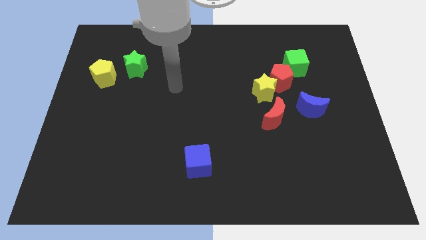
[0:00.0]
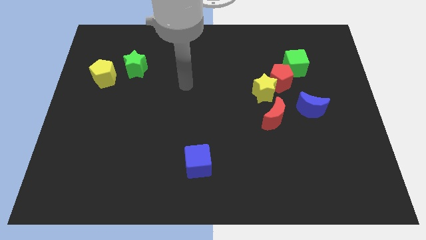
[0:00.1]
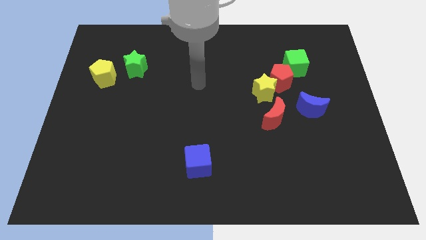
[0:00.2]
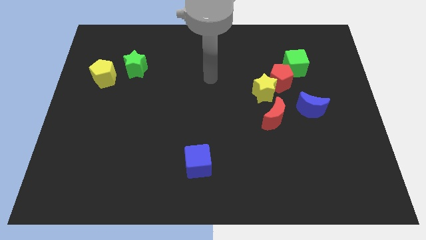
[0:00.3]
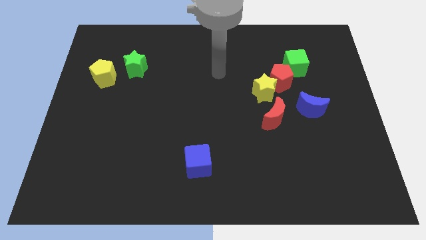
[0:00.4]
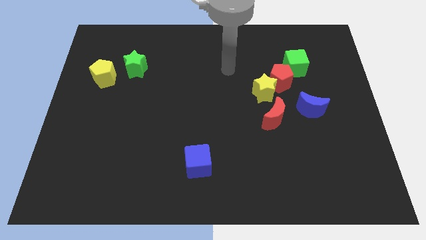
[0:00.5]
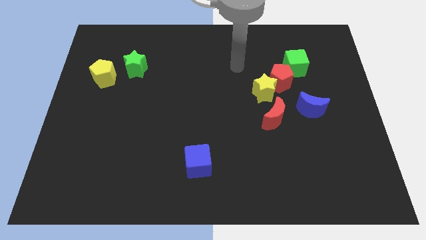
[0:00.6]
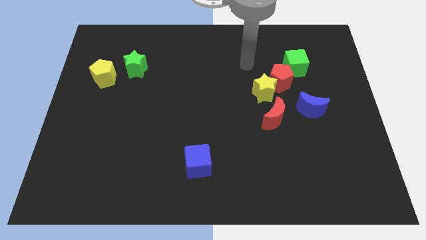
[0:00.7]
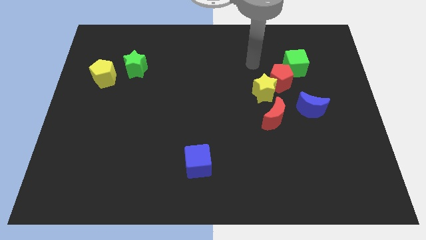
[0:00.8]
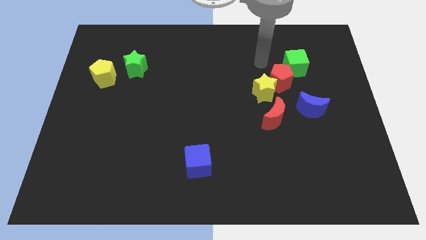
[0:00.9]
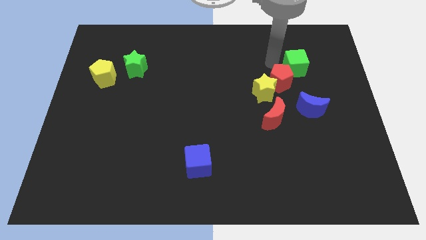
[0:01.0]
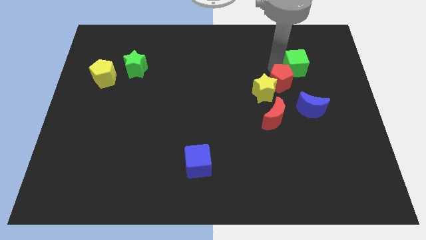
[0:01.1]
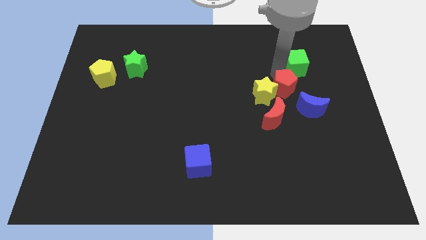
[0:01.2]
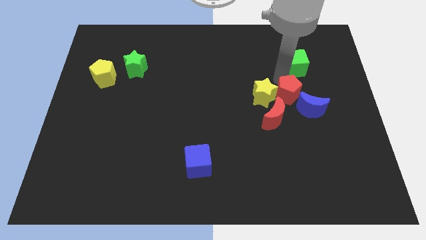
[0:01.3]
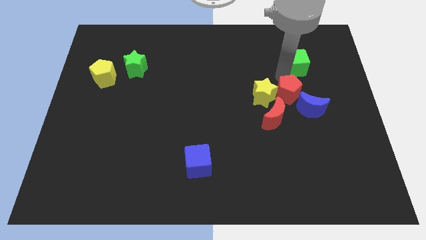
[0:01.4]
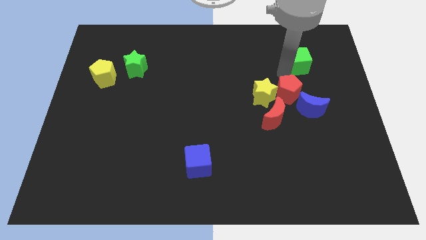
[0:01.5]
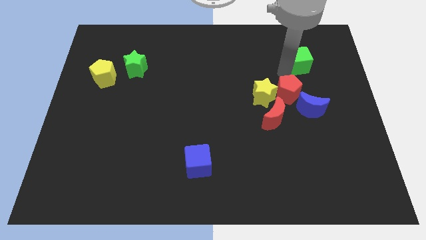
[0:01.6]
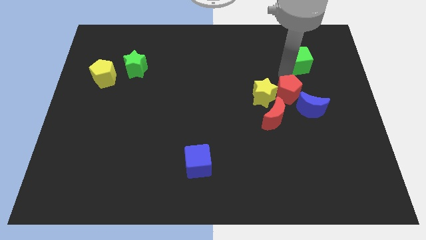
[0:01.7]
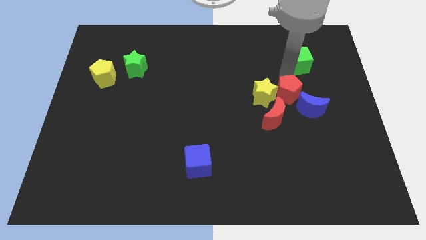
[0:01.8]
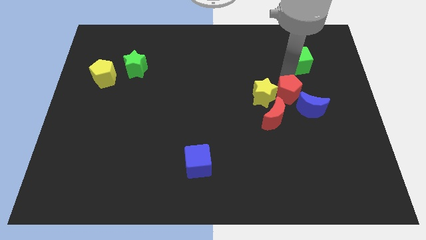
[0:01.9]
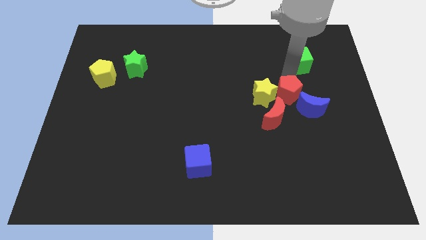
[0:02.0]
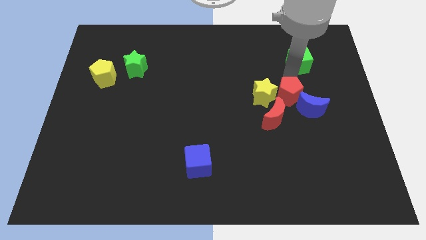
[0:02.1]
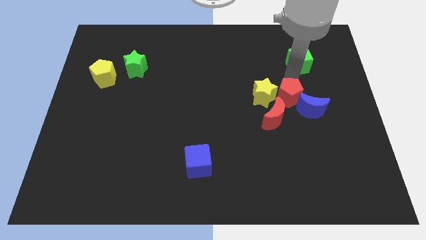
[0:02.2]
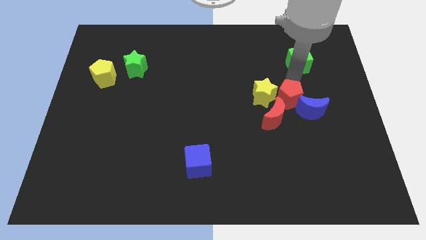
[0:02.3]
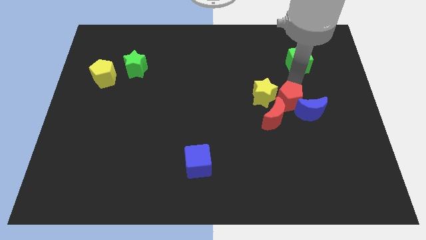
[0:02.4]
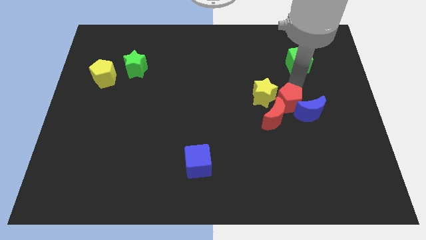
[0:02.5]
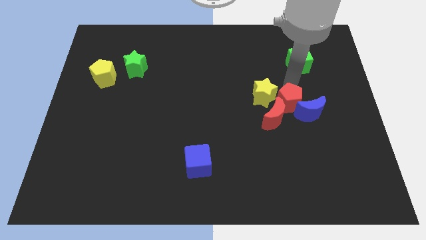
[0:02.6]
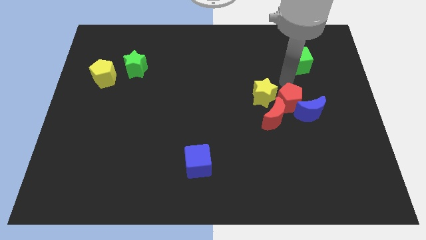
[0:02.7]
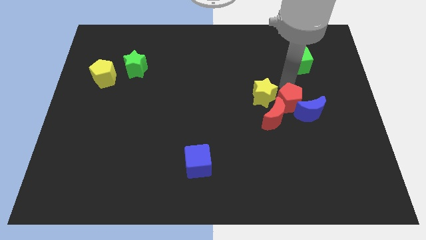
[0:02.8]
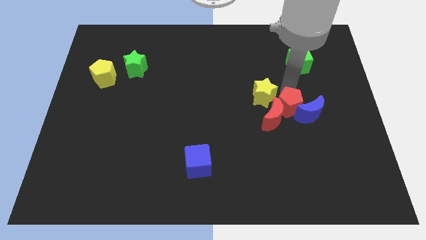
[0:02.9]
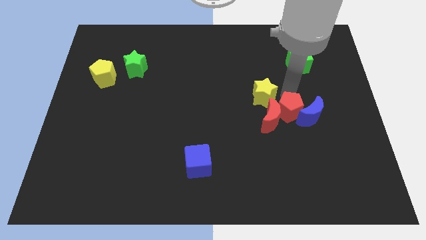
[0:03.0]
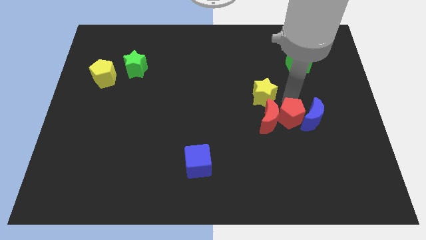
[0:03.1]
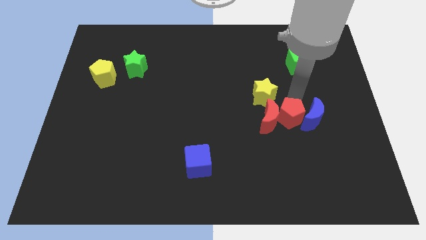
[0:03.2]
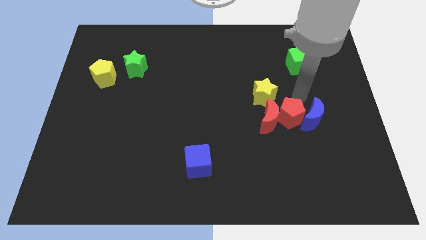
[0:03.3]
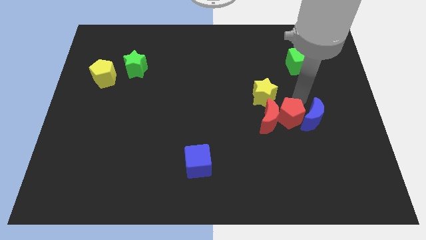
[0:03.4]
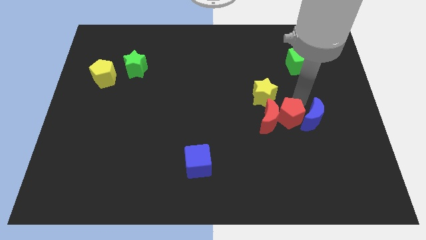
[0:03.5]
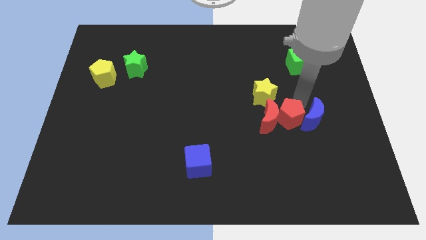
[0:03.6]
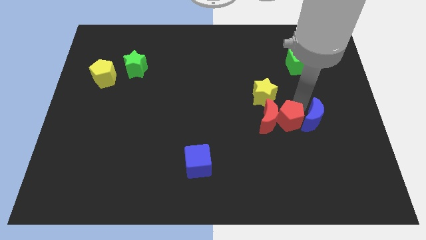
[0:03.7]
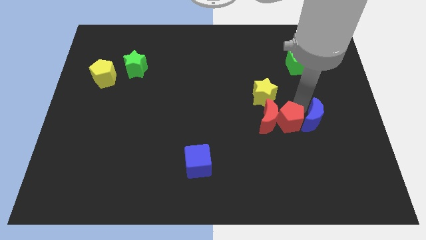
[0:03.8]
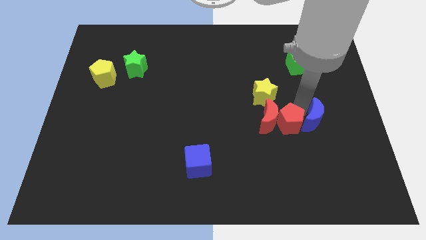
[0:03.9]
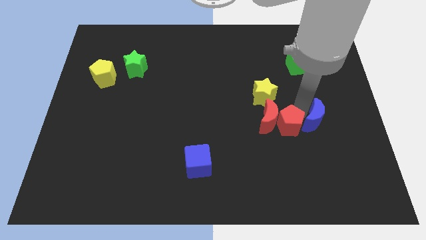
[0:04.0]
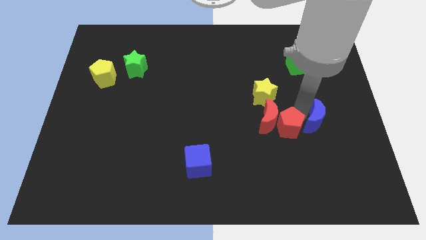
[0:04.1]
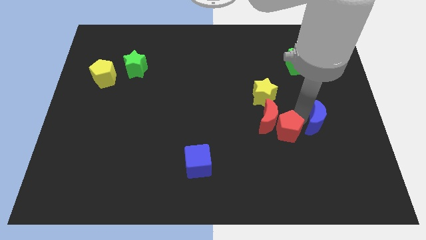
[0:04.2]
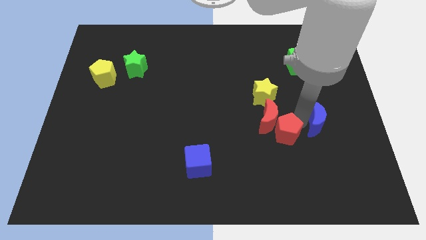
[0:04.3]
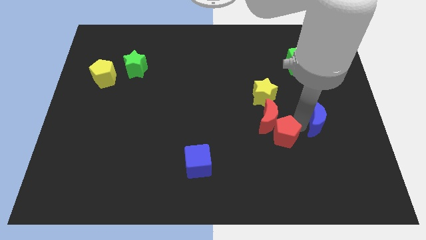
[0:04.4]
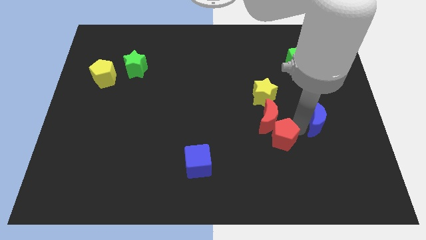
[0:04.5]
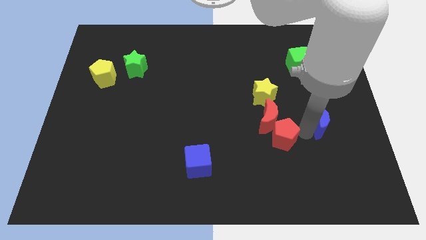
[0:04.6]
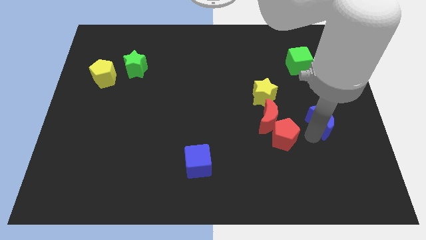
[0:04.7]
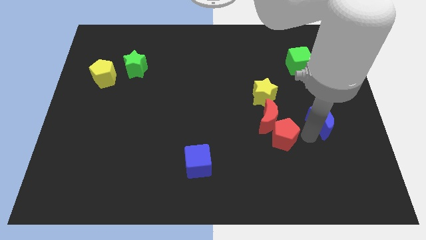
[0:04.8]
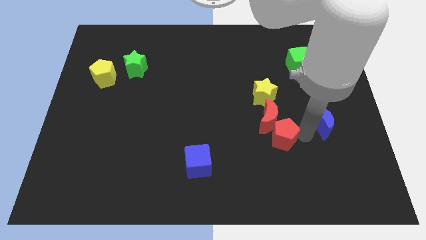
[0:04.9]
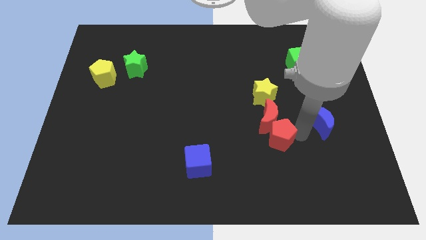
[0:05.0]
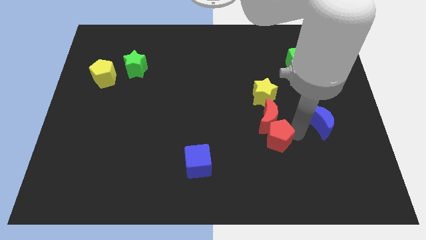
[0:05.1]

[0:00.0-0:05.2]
move the red pentagon to the bottom left side of the red moon

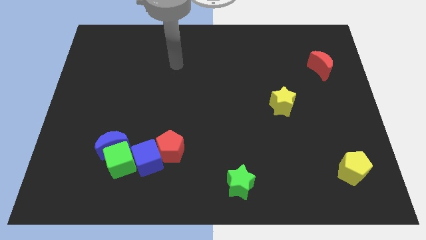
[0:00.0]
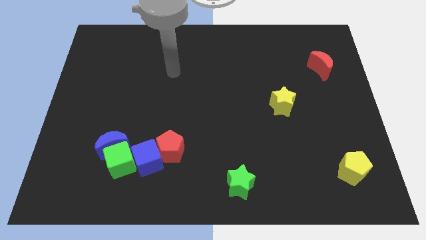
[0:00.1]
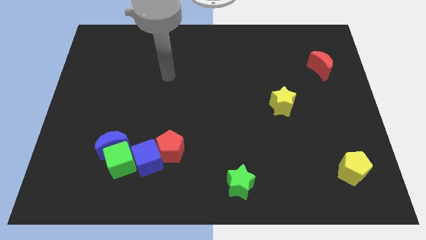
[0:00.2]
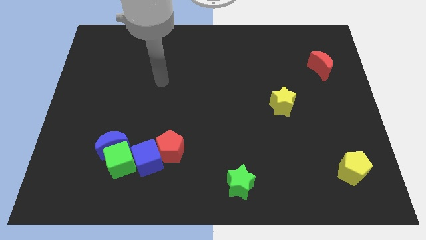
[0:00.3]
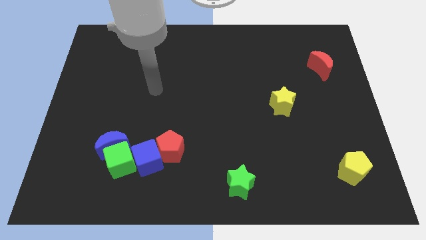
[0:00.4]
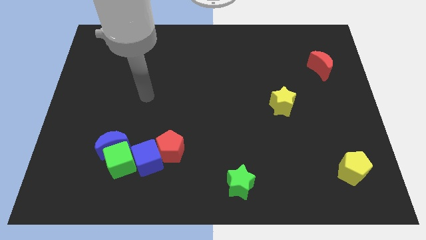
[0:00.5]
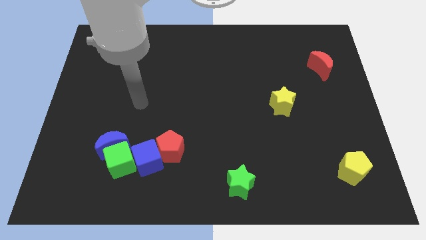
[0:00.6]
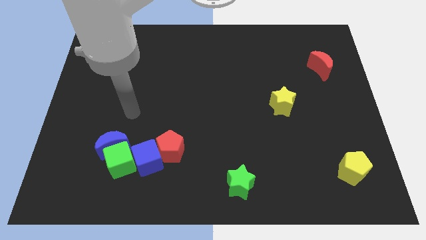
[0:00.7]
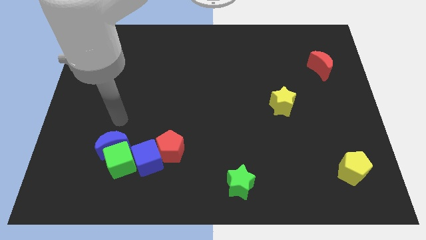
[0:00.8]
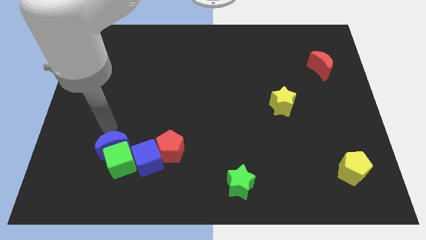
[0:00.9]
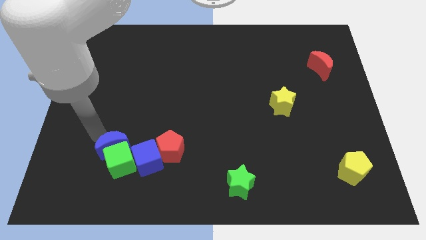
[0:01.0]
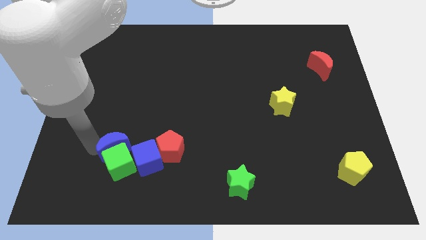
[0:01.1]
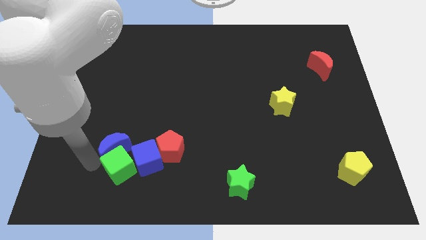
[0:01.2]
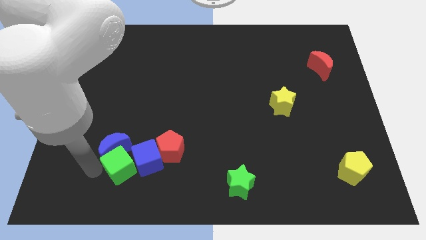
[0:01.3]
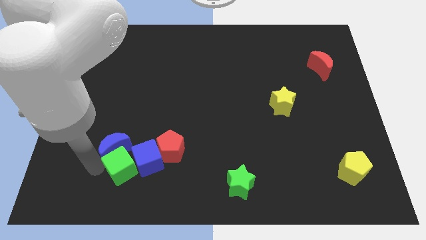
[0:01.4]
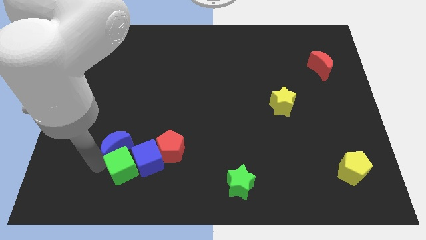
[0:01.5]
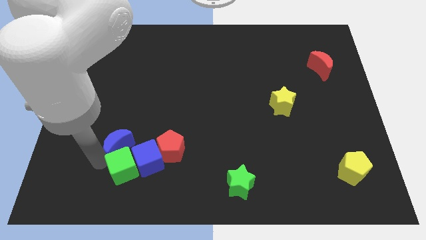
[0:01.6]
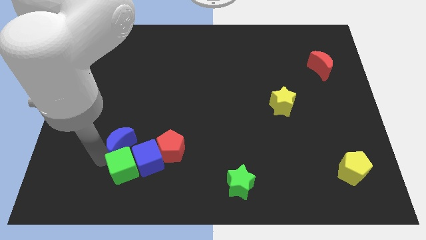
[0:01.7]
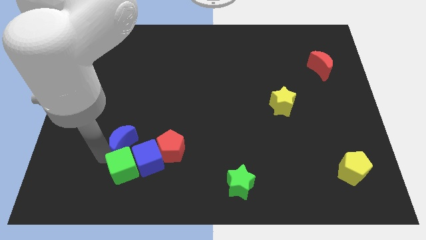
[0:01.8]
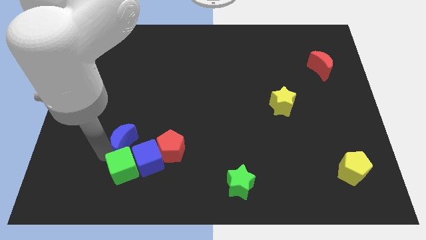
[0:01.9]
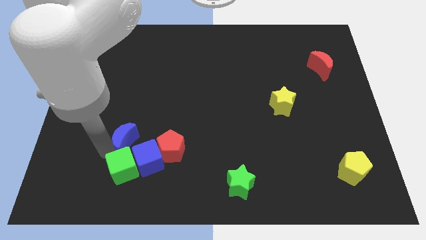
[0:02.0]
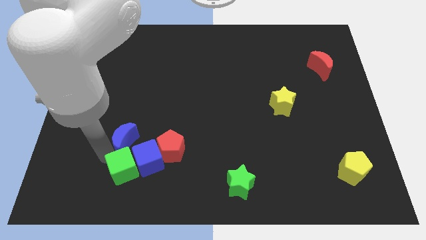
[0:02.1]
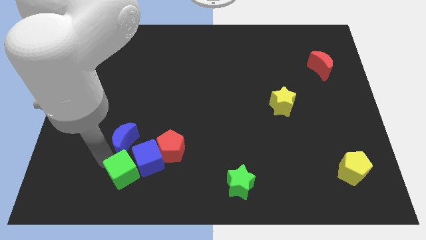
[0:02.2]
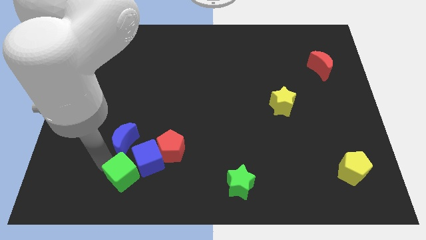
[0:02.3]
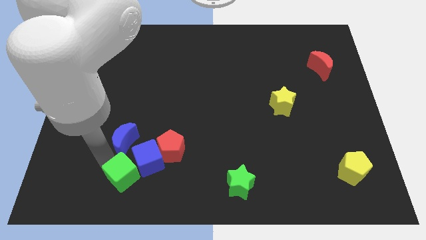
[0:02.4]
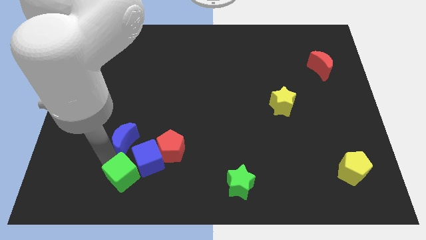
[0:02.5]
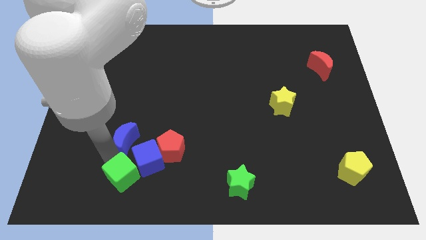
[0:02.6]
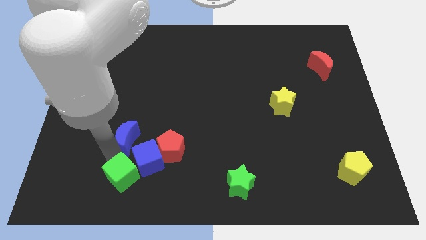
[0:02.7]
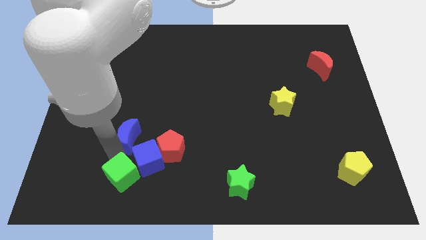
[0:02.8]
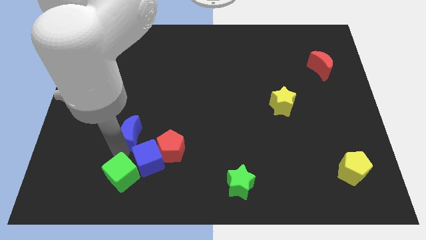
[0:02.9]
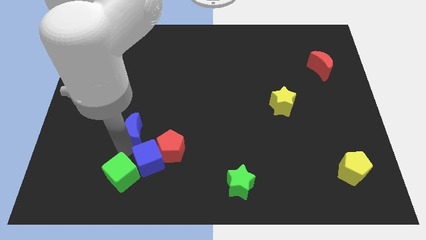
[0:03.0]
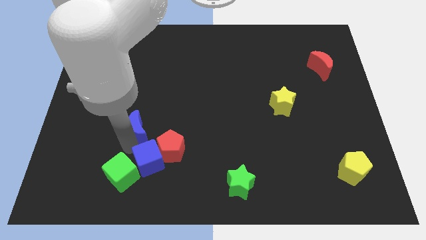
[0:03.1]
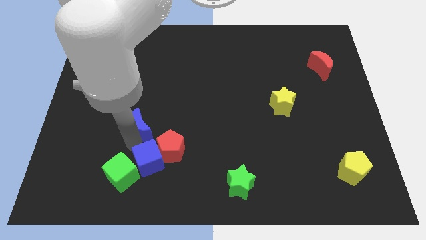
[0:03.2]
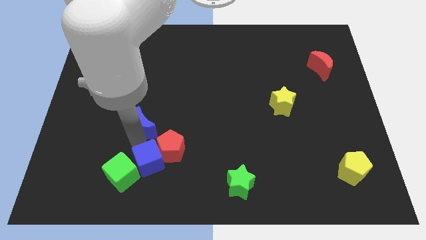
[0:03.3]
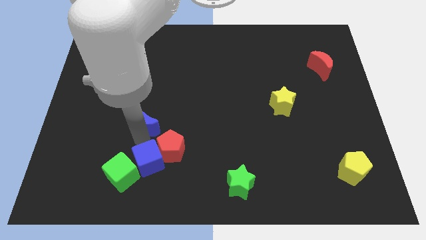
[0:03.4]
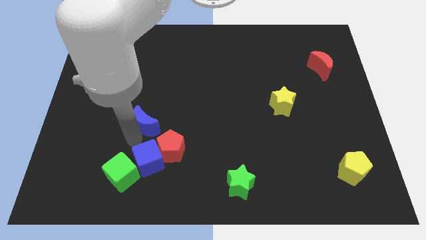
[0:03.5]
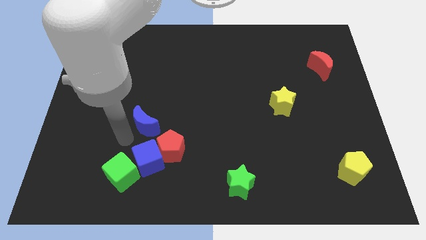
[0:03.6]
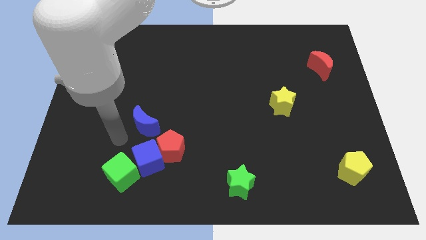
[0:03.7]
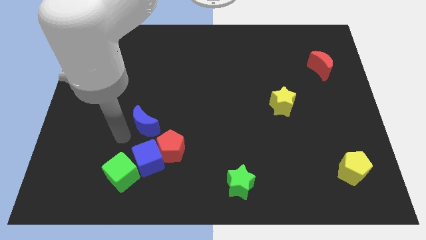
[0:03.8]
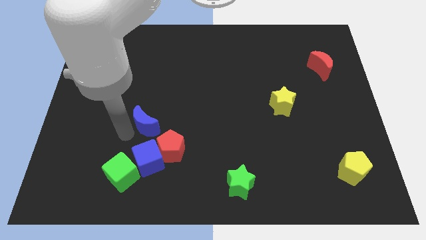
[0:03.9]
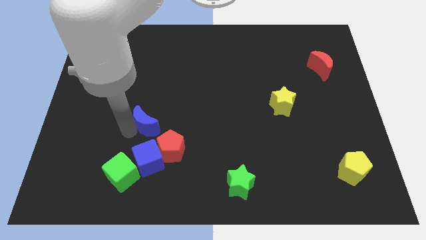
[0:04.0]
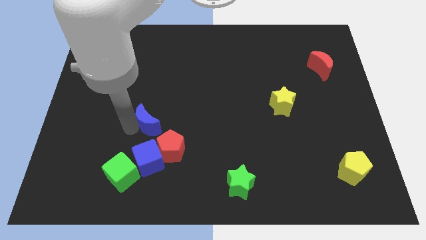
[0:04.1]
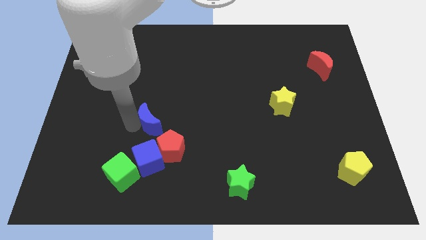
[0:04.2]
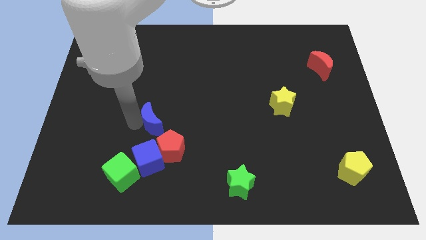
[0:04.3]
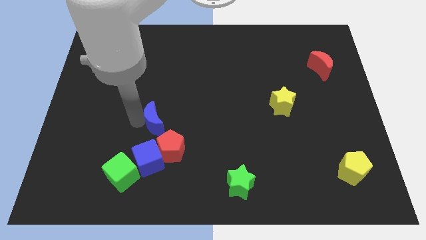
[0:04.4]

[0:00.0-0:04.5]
move the blue moon to the top side of the red pentagon
